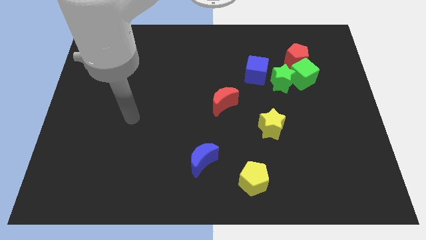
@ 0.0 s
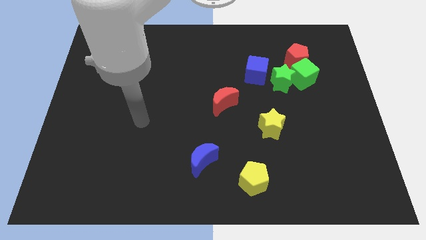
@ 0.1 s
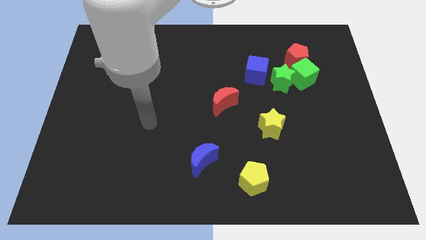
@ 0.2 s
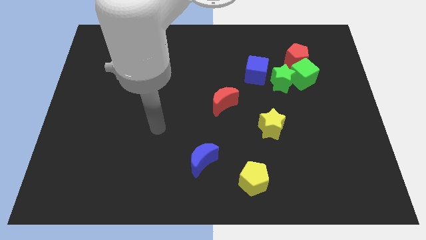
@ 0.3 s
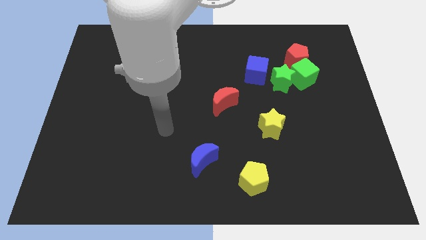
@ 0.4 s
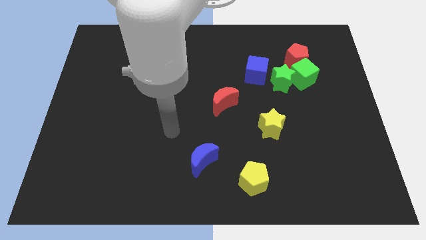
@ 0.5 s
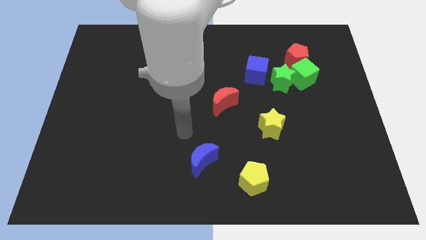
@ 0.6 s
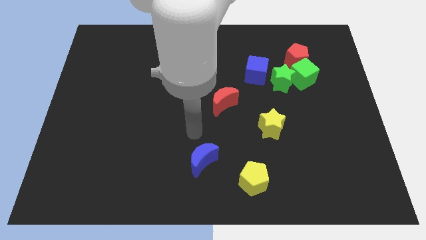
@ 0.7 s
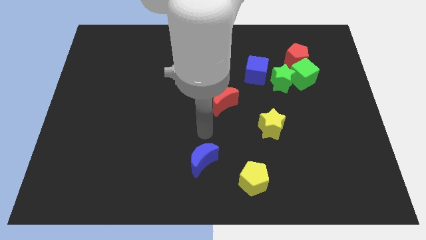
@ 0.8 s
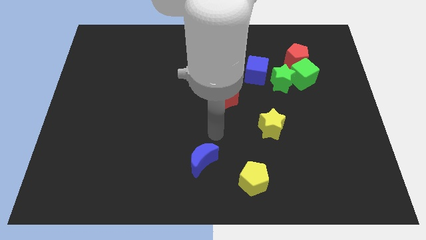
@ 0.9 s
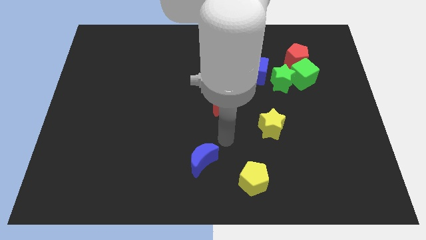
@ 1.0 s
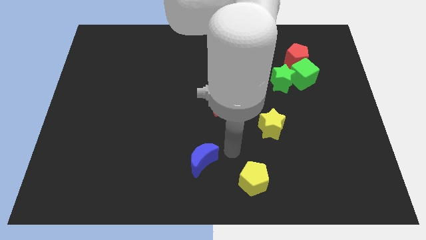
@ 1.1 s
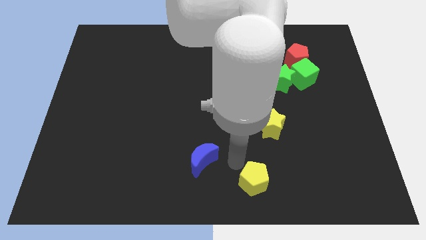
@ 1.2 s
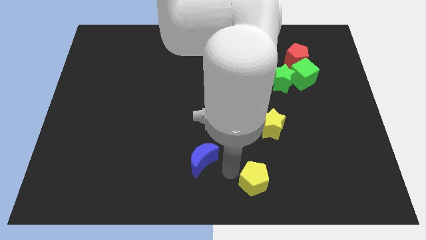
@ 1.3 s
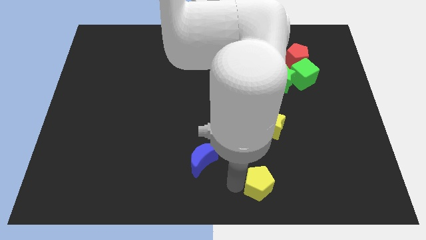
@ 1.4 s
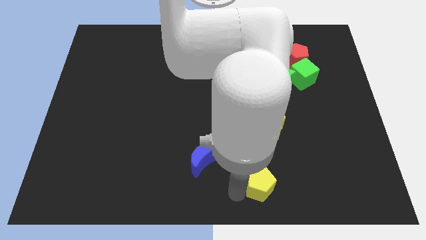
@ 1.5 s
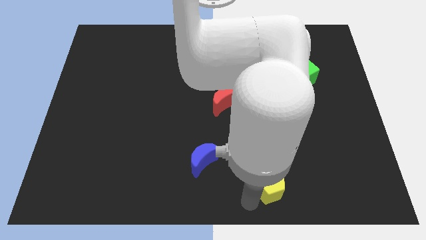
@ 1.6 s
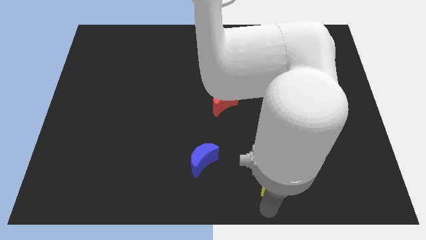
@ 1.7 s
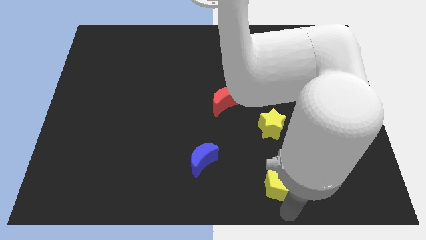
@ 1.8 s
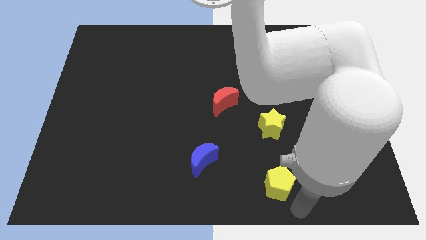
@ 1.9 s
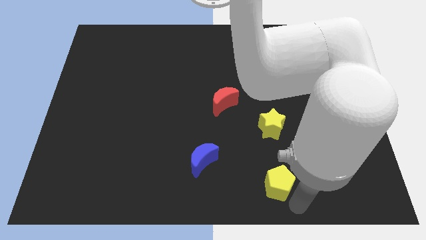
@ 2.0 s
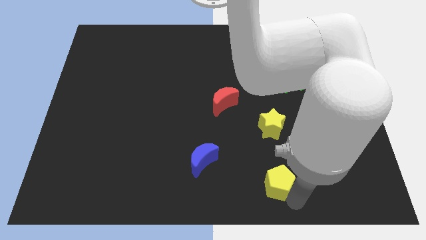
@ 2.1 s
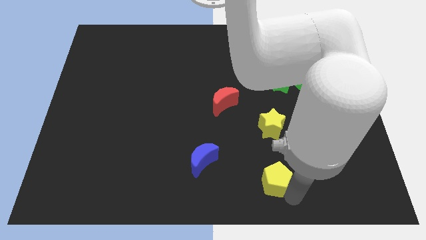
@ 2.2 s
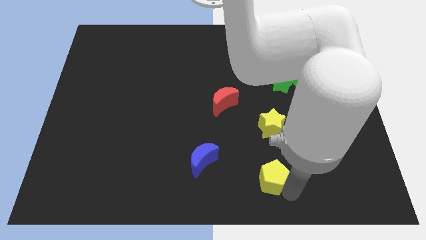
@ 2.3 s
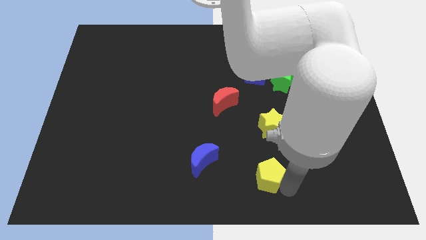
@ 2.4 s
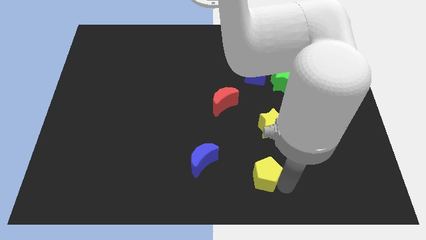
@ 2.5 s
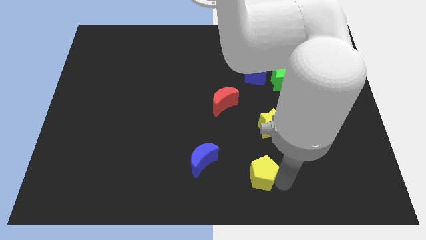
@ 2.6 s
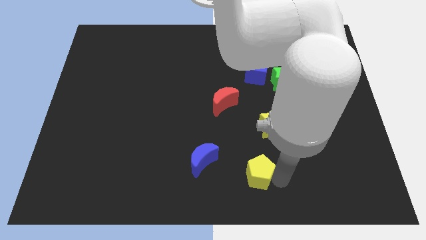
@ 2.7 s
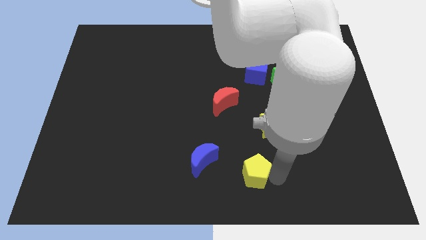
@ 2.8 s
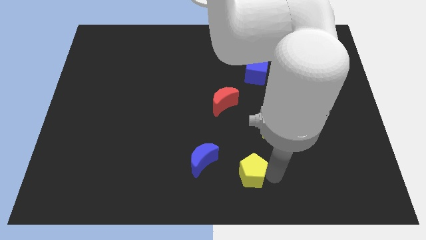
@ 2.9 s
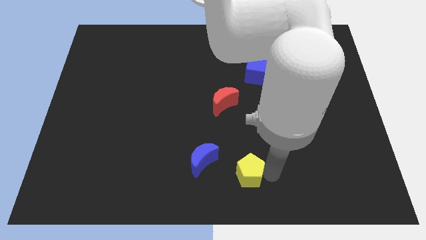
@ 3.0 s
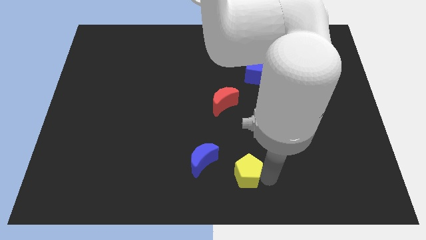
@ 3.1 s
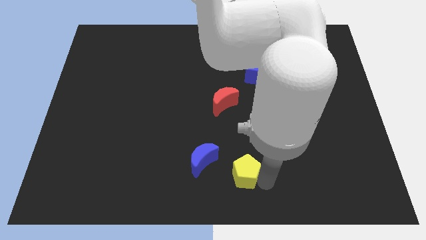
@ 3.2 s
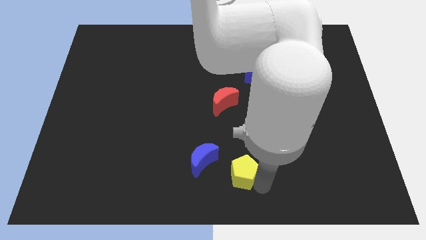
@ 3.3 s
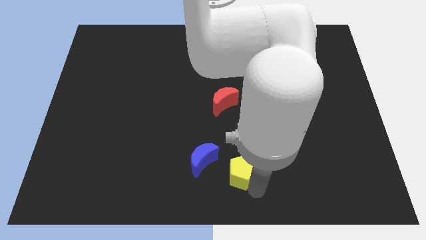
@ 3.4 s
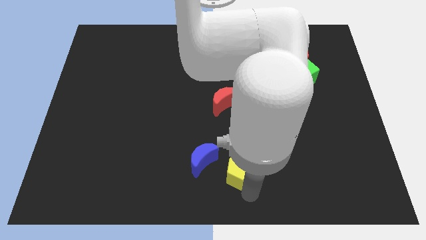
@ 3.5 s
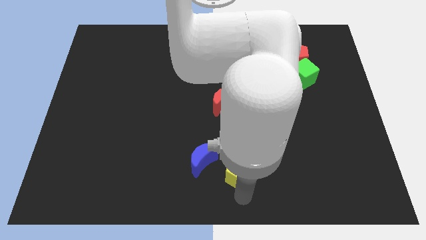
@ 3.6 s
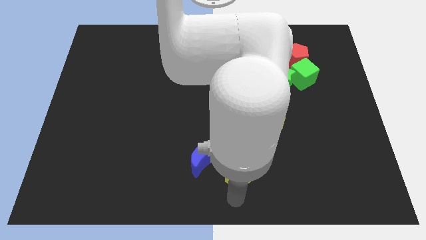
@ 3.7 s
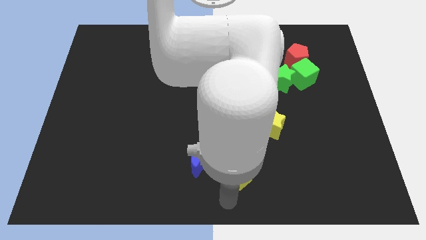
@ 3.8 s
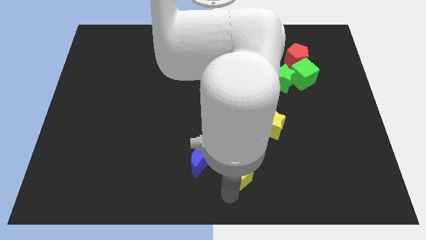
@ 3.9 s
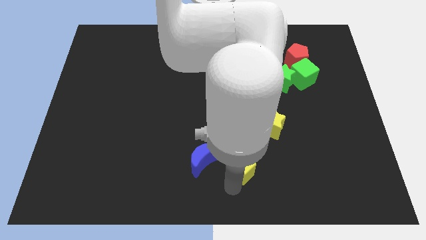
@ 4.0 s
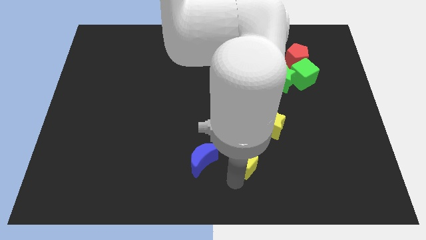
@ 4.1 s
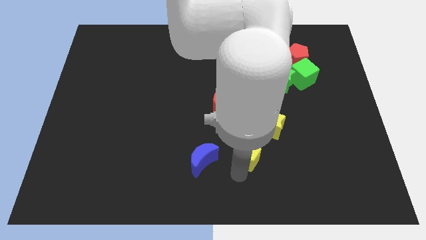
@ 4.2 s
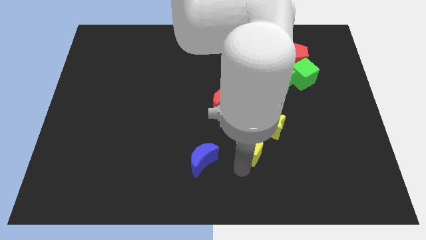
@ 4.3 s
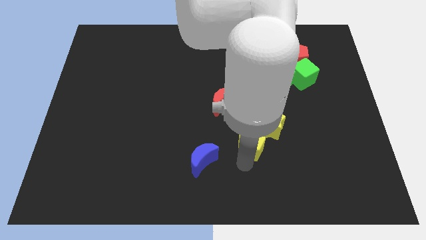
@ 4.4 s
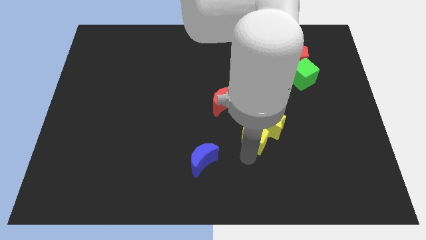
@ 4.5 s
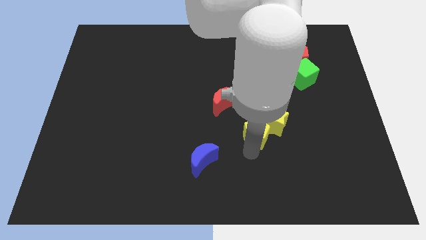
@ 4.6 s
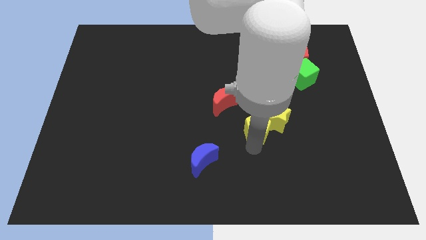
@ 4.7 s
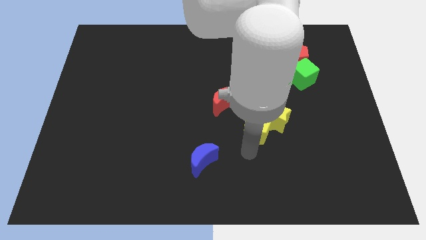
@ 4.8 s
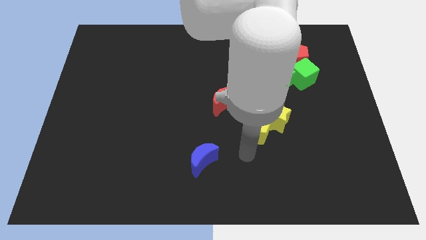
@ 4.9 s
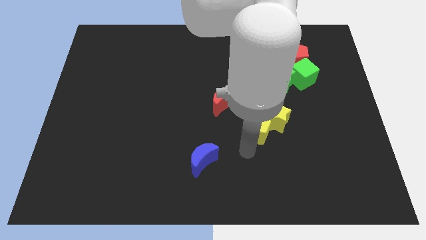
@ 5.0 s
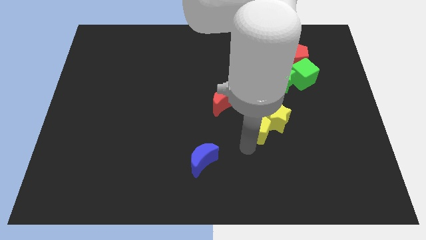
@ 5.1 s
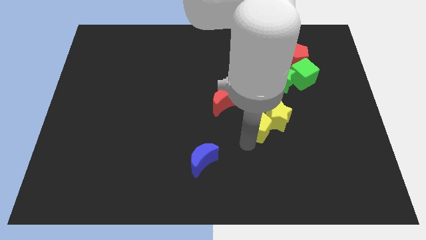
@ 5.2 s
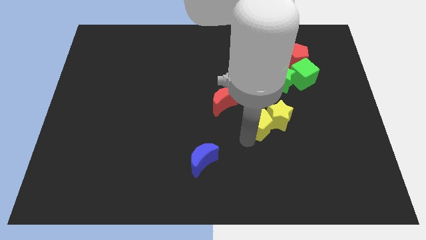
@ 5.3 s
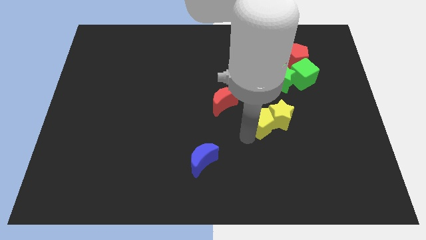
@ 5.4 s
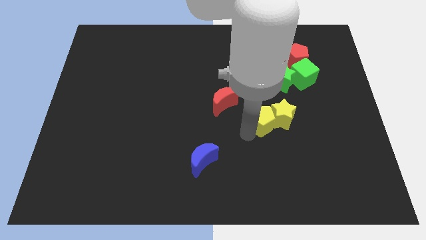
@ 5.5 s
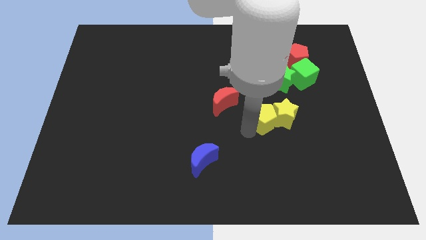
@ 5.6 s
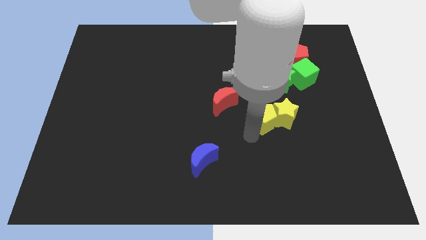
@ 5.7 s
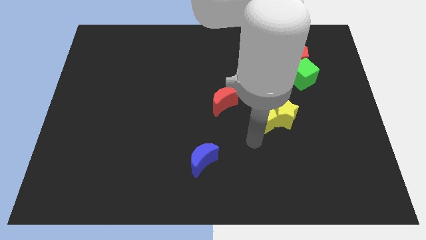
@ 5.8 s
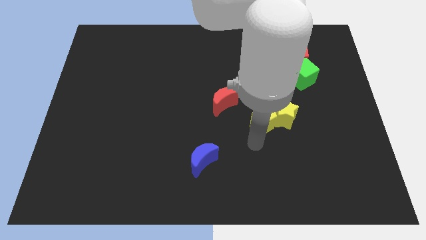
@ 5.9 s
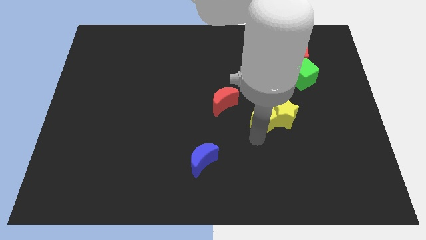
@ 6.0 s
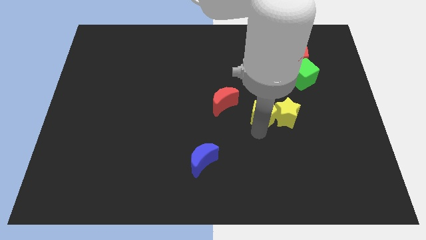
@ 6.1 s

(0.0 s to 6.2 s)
move the yellow pentagon to the right side of the red moon

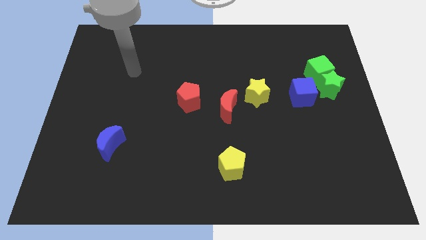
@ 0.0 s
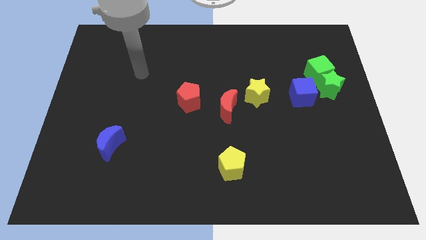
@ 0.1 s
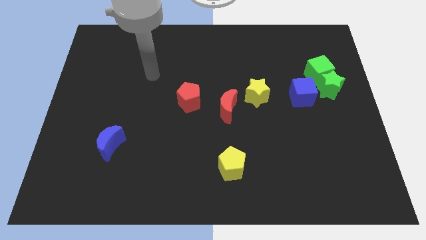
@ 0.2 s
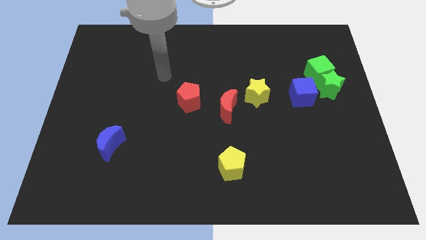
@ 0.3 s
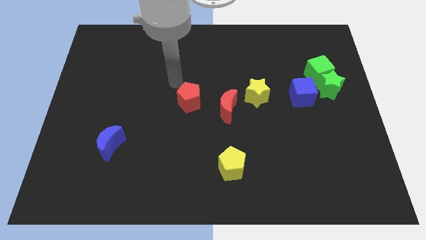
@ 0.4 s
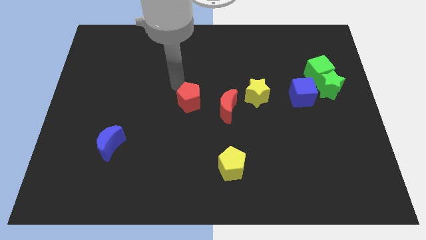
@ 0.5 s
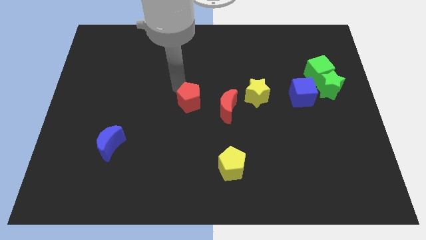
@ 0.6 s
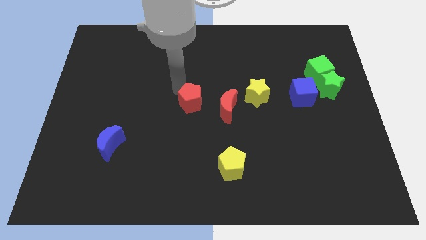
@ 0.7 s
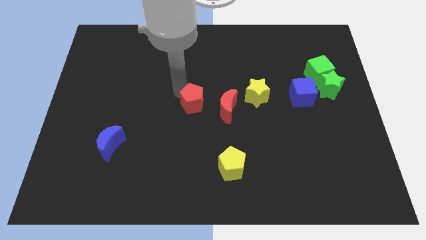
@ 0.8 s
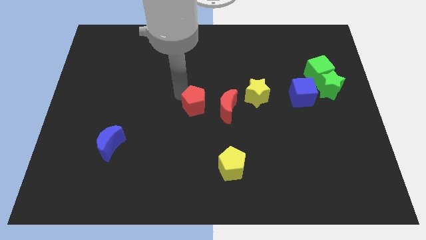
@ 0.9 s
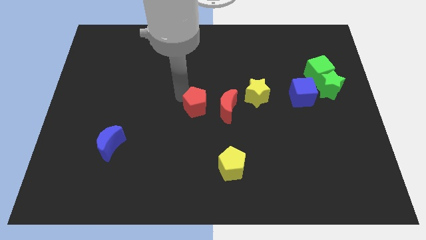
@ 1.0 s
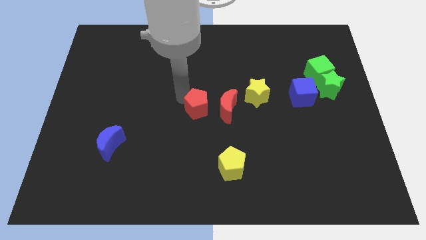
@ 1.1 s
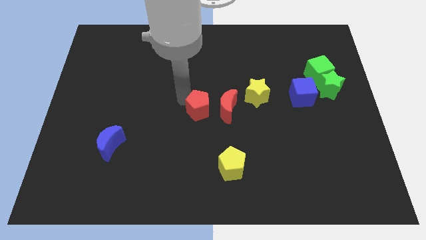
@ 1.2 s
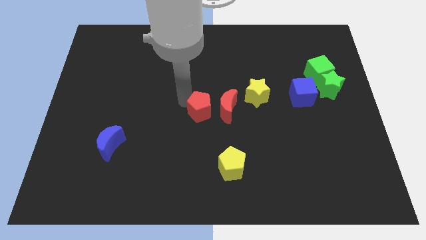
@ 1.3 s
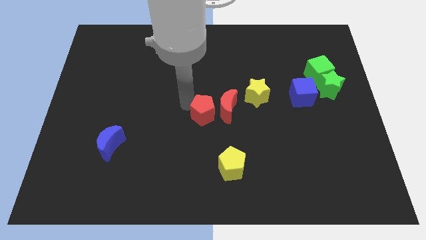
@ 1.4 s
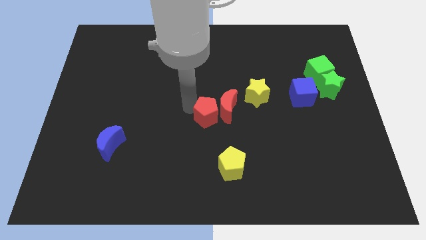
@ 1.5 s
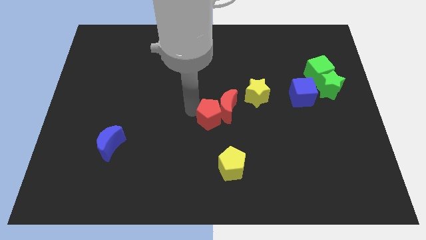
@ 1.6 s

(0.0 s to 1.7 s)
put the red pentagon below the red moon

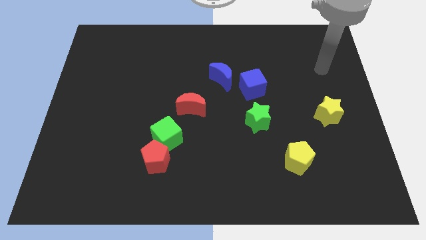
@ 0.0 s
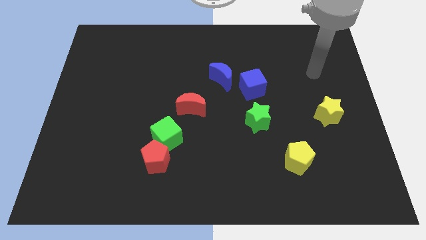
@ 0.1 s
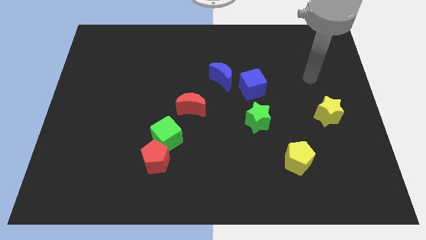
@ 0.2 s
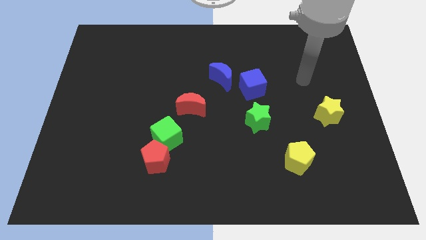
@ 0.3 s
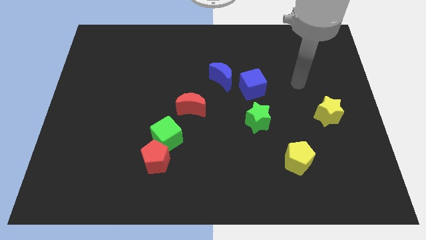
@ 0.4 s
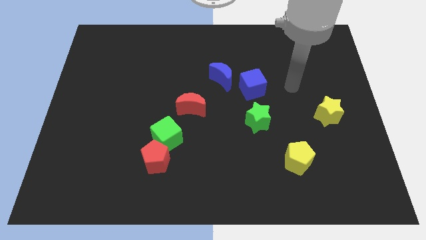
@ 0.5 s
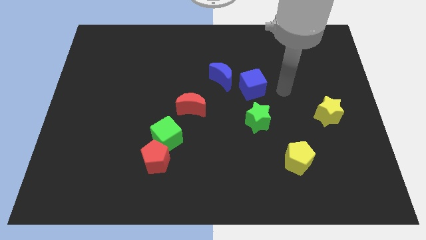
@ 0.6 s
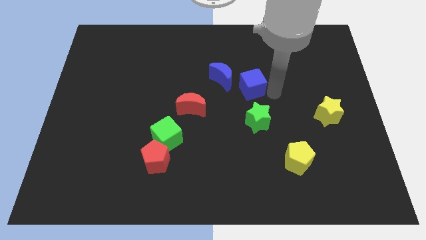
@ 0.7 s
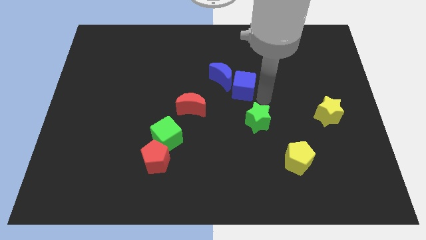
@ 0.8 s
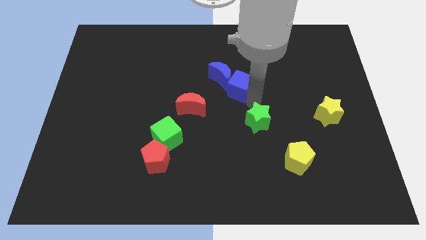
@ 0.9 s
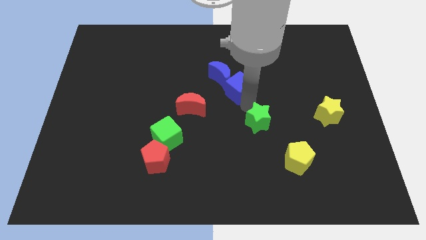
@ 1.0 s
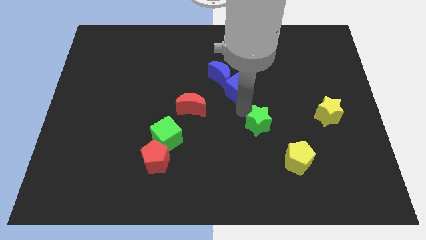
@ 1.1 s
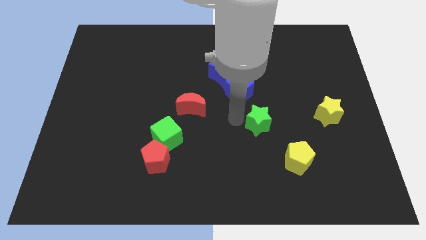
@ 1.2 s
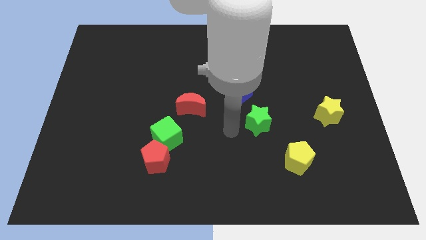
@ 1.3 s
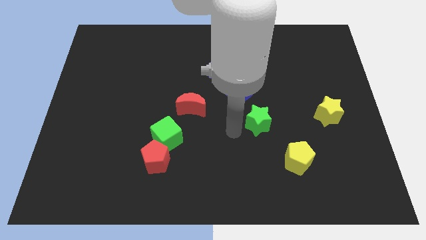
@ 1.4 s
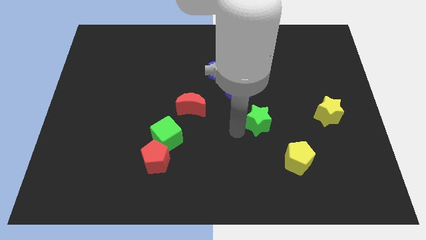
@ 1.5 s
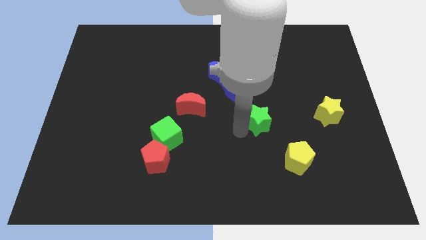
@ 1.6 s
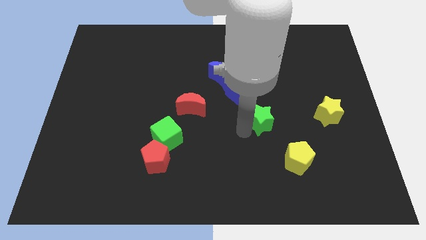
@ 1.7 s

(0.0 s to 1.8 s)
put the green star left of the yellow star
